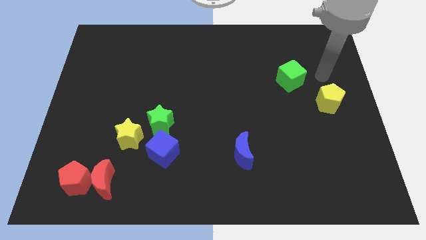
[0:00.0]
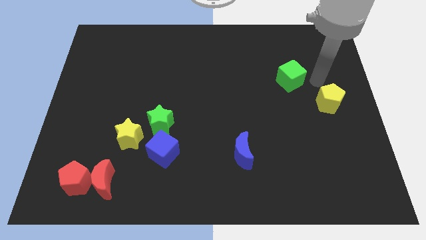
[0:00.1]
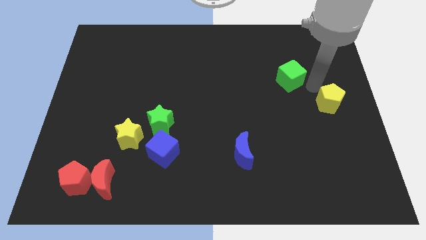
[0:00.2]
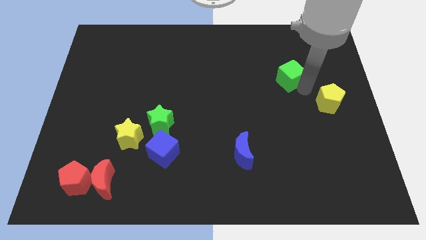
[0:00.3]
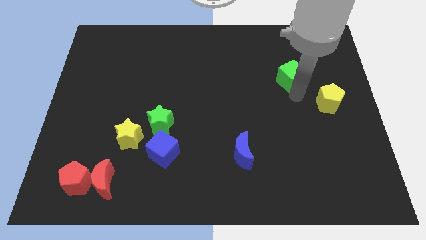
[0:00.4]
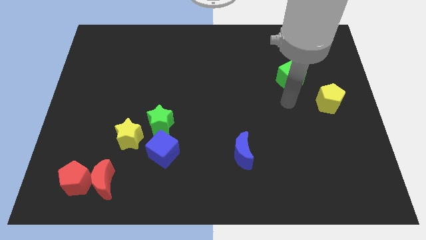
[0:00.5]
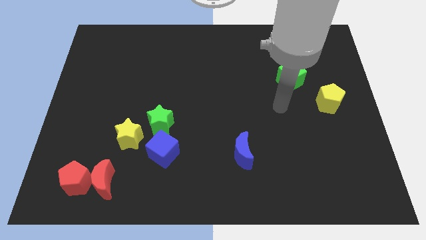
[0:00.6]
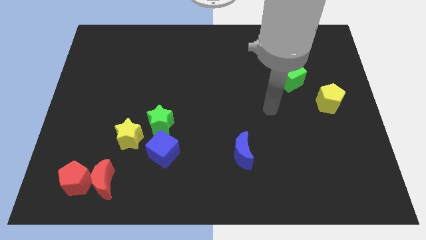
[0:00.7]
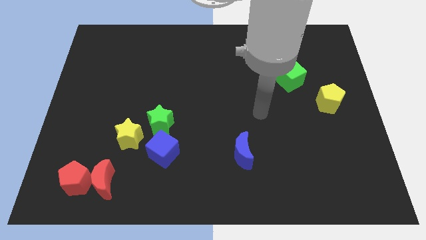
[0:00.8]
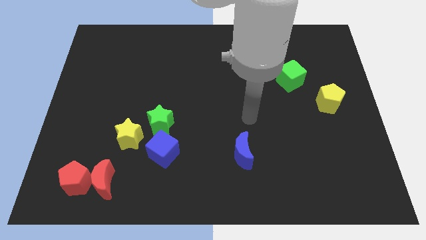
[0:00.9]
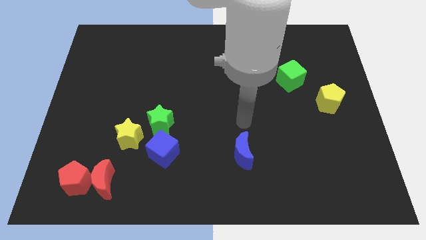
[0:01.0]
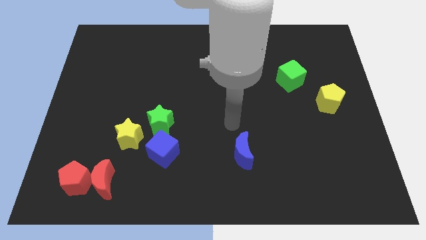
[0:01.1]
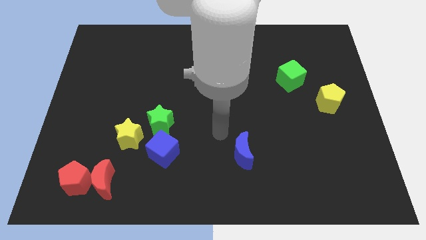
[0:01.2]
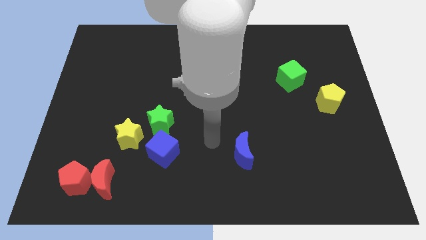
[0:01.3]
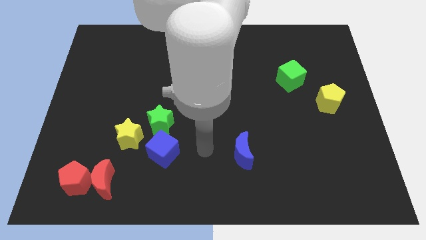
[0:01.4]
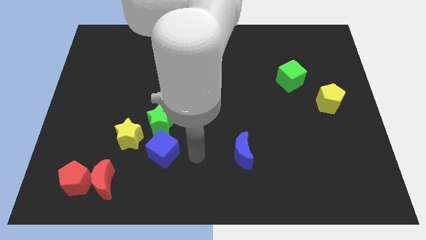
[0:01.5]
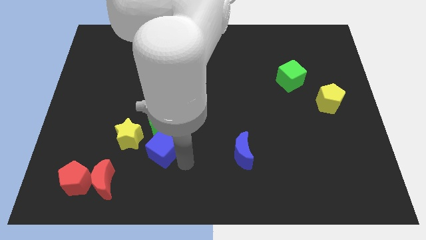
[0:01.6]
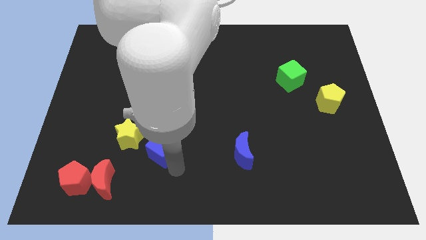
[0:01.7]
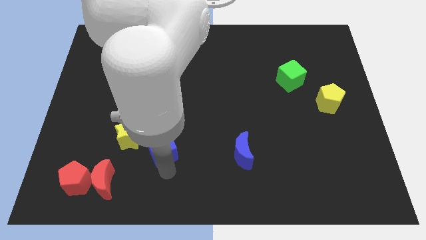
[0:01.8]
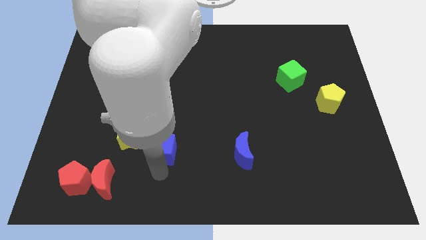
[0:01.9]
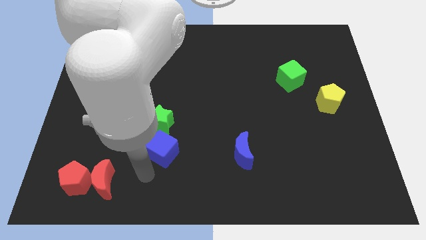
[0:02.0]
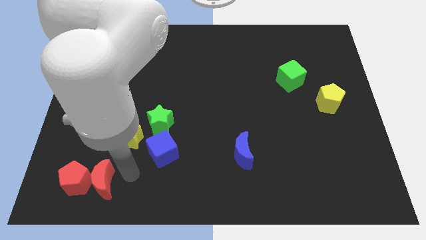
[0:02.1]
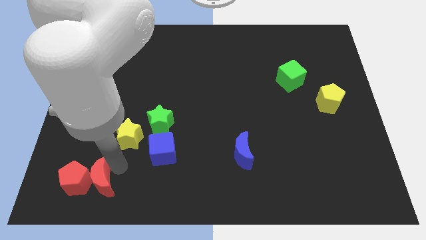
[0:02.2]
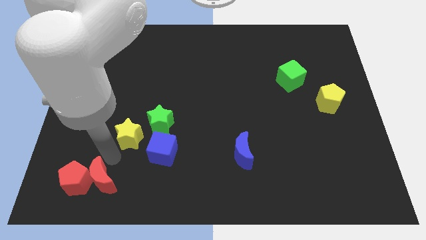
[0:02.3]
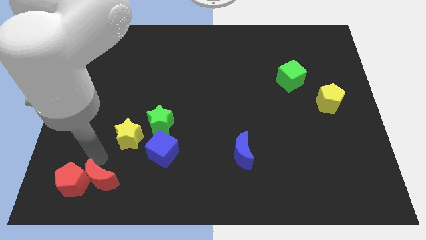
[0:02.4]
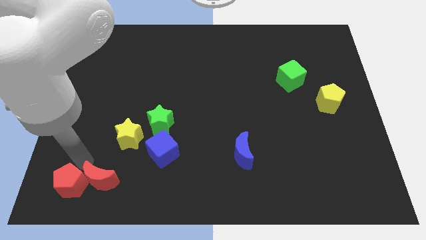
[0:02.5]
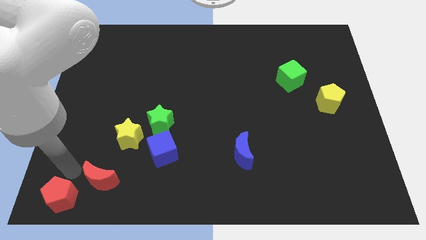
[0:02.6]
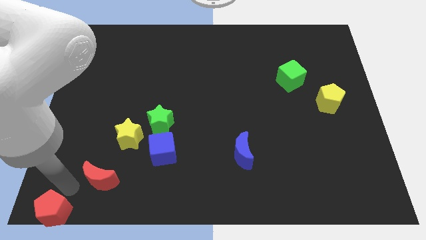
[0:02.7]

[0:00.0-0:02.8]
separate the red moon from the red pentagon

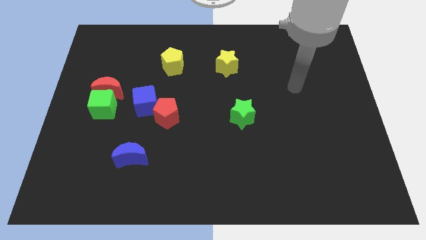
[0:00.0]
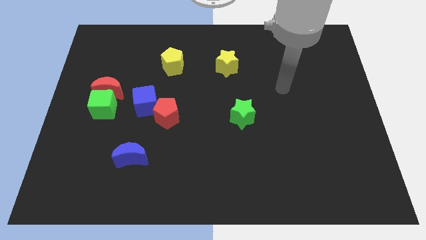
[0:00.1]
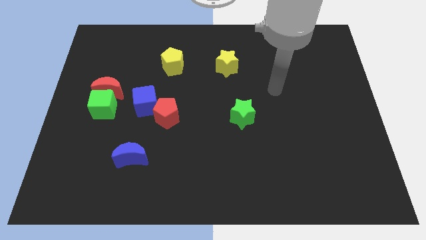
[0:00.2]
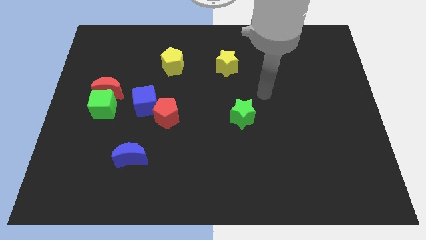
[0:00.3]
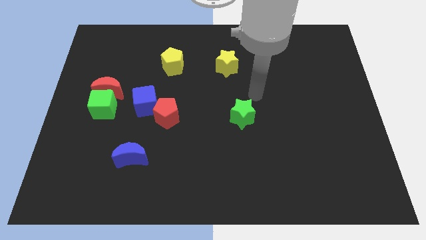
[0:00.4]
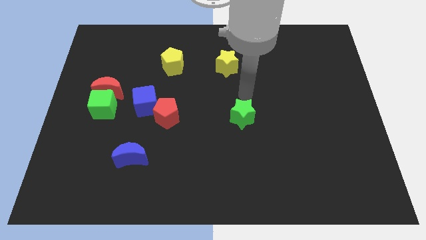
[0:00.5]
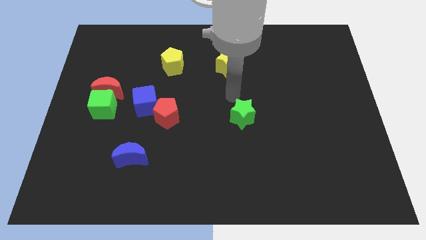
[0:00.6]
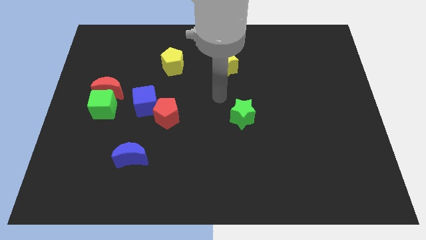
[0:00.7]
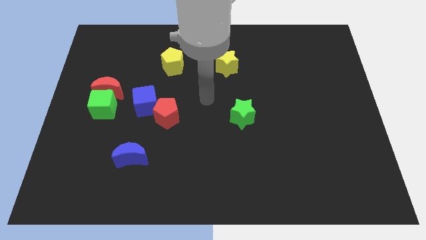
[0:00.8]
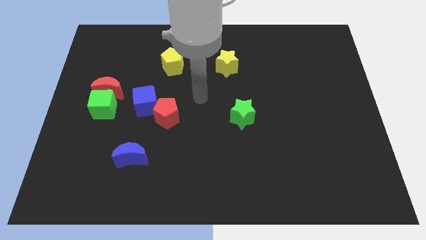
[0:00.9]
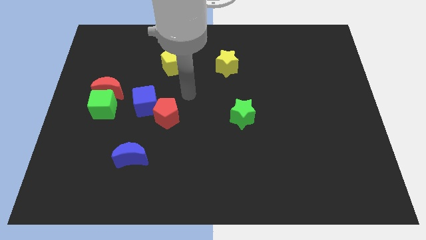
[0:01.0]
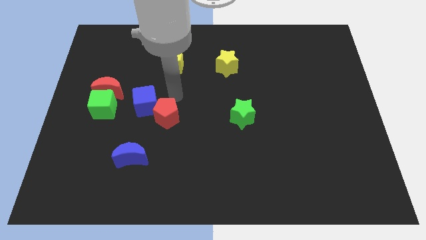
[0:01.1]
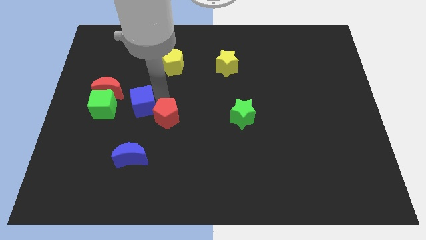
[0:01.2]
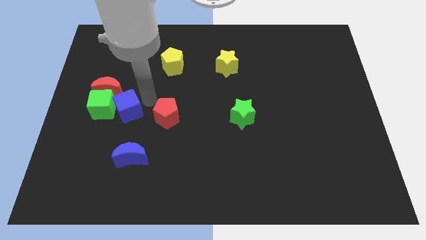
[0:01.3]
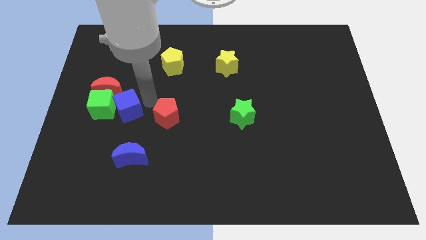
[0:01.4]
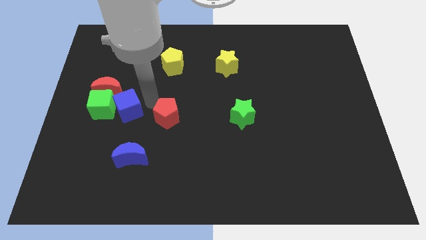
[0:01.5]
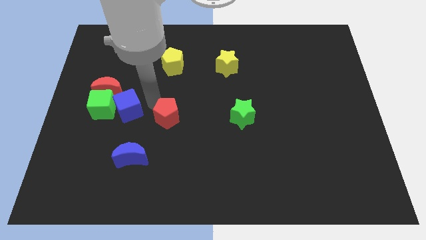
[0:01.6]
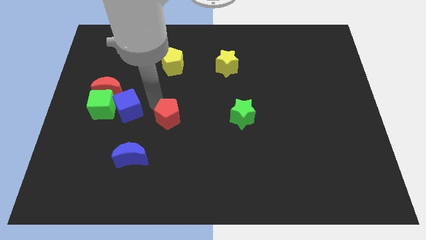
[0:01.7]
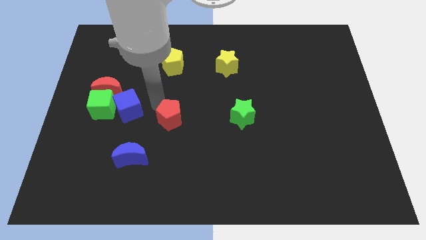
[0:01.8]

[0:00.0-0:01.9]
pull the red pentagon apart from the blue cube

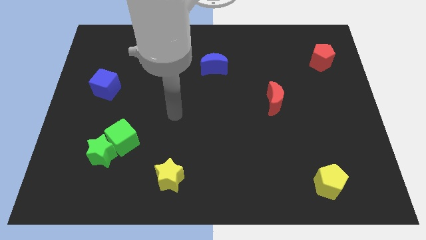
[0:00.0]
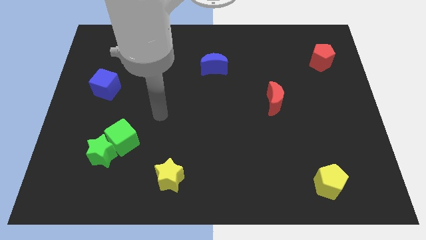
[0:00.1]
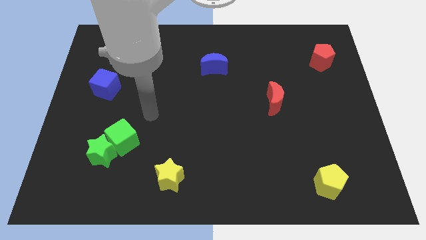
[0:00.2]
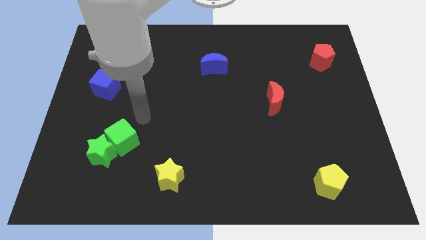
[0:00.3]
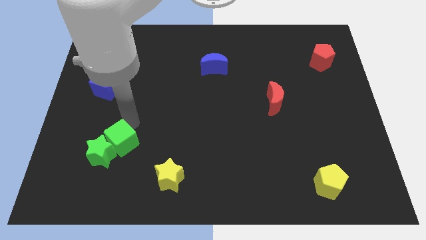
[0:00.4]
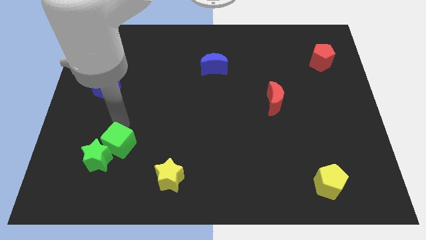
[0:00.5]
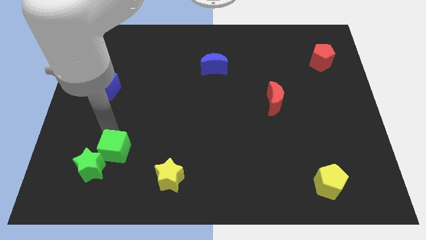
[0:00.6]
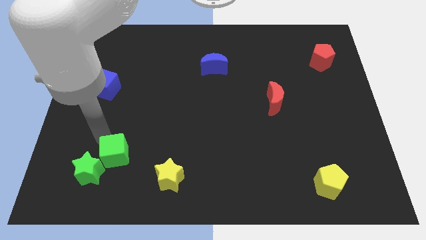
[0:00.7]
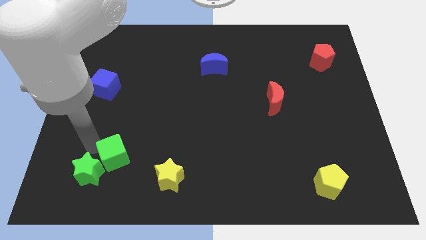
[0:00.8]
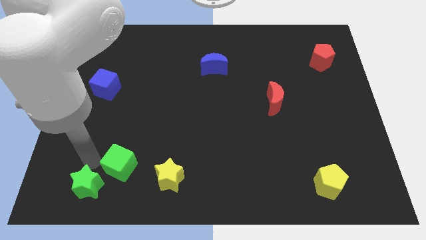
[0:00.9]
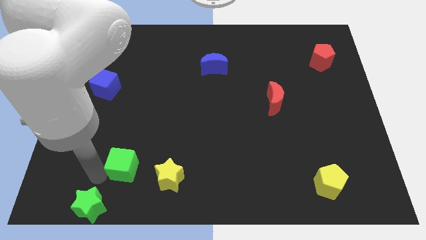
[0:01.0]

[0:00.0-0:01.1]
move the green cube away from the green star

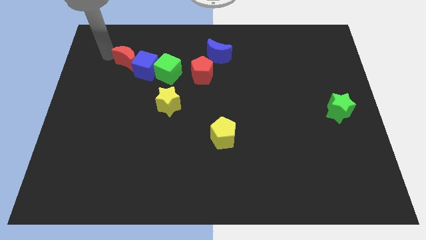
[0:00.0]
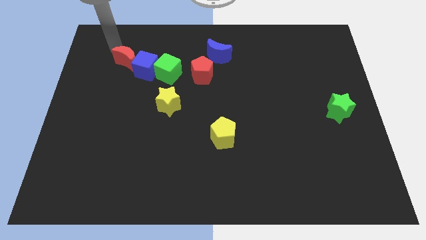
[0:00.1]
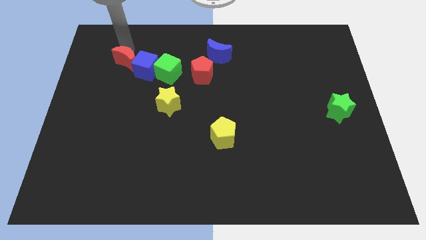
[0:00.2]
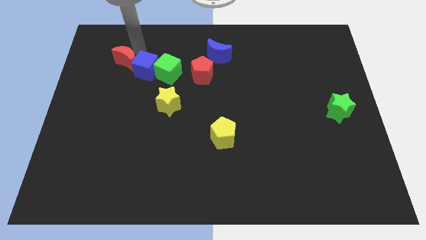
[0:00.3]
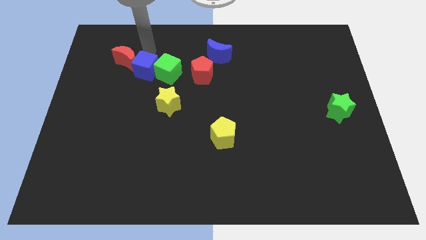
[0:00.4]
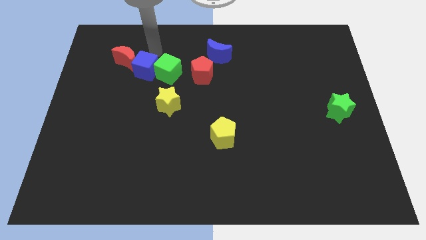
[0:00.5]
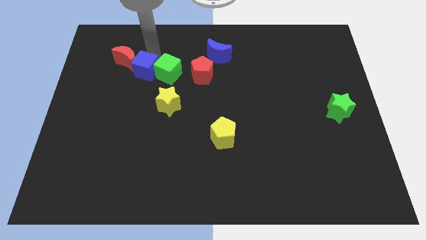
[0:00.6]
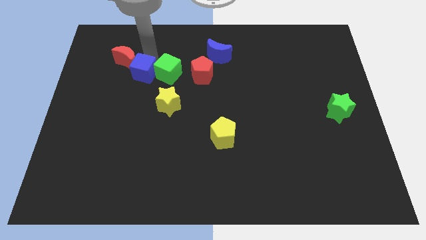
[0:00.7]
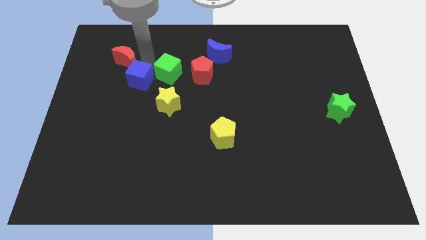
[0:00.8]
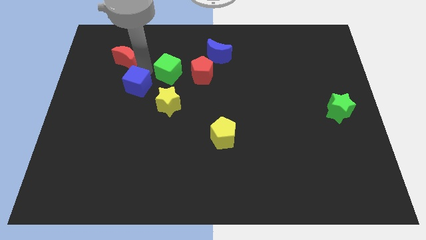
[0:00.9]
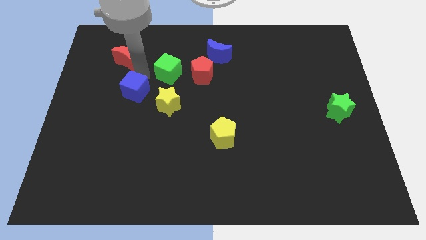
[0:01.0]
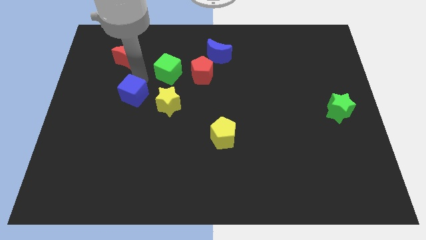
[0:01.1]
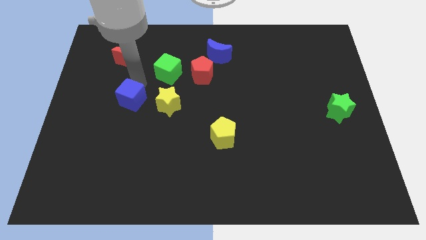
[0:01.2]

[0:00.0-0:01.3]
separate the blue cube from the green cube and red moon

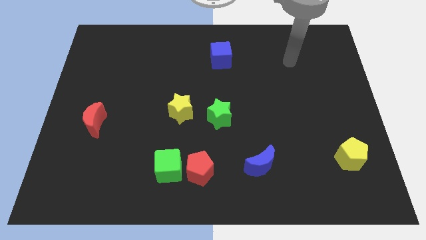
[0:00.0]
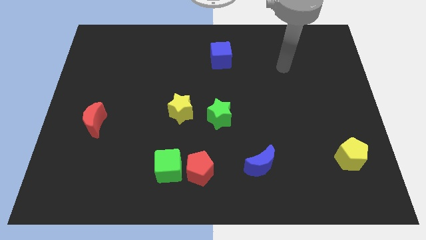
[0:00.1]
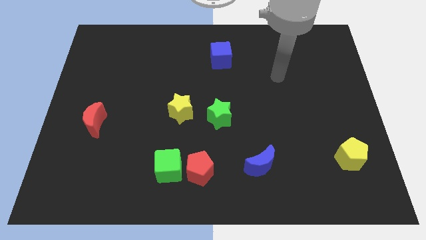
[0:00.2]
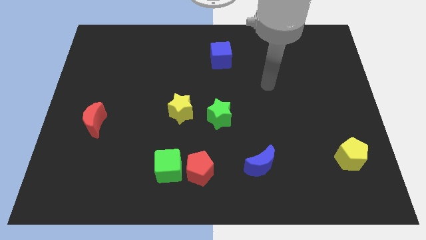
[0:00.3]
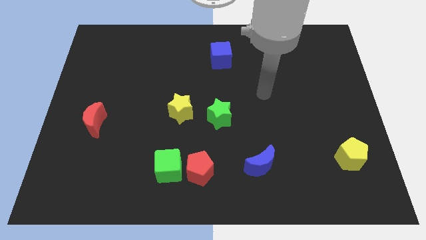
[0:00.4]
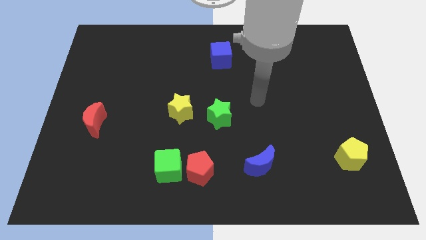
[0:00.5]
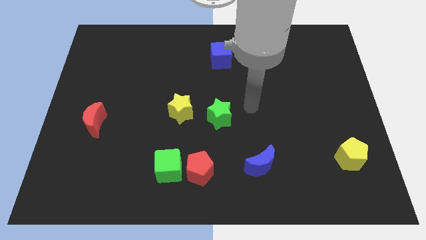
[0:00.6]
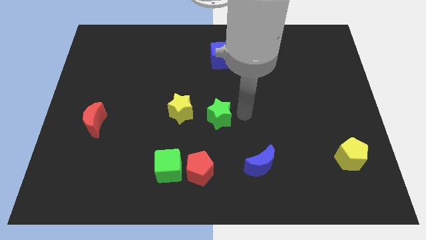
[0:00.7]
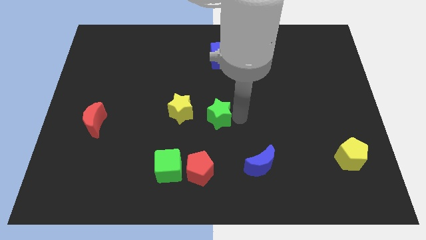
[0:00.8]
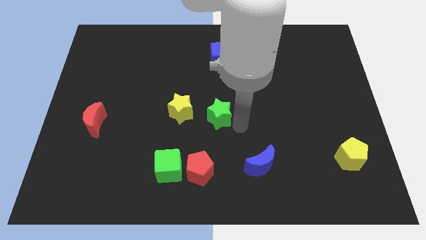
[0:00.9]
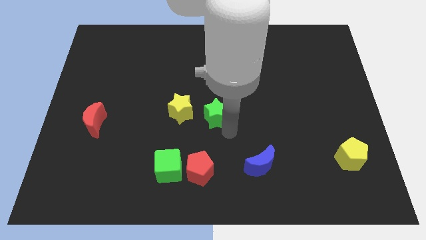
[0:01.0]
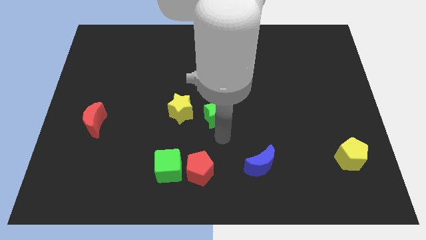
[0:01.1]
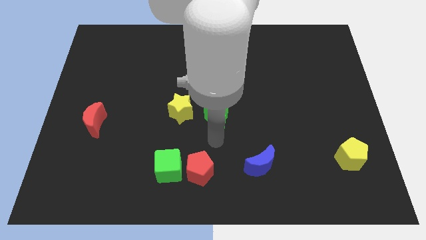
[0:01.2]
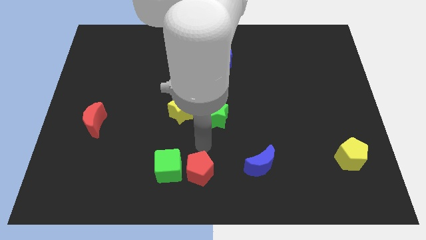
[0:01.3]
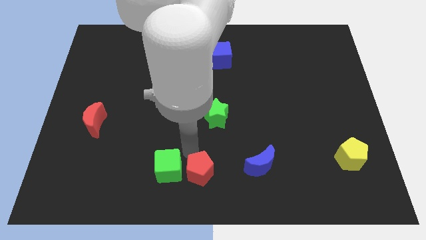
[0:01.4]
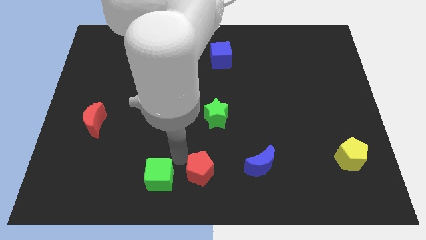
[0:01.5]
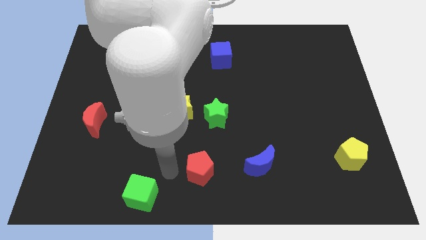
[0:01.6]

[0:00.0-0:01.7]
pull the red pentagon apart from the green cube

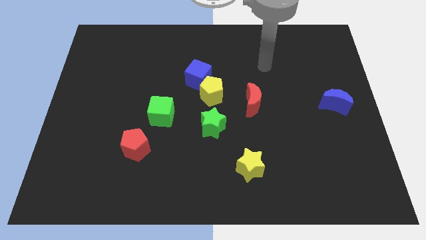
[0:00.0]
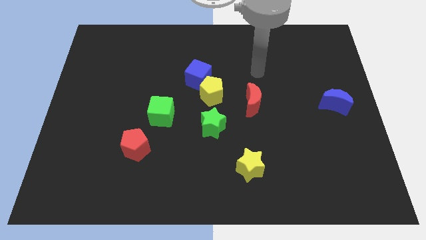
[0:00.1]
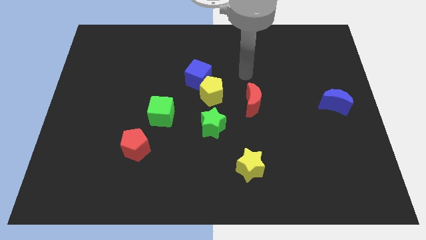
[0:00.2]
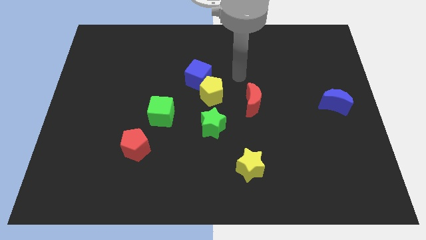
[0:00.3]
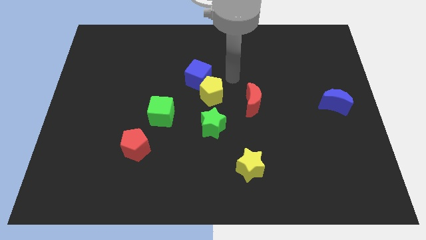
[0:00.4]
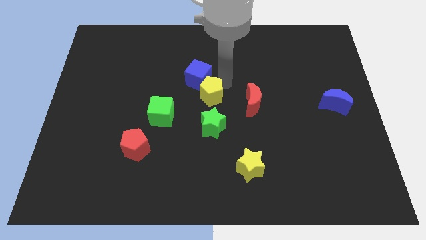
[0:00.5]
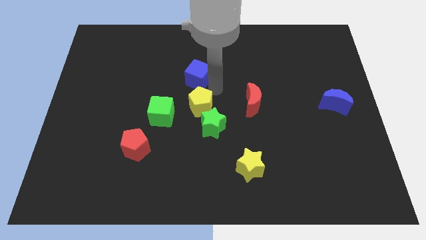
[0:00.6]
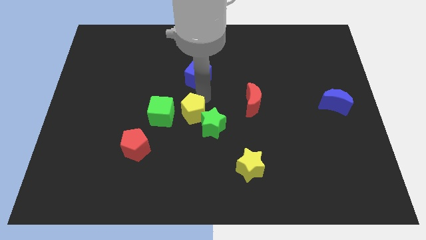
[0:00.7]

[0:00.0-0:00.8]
move the blue cube away from the yellow pentagon
